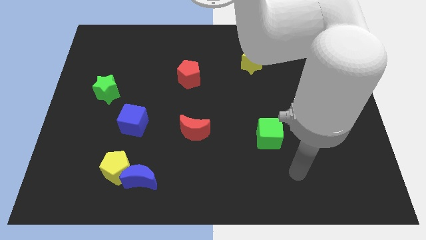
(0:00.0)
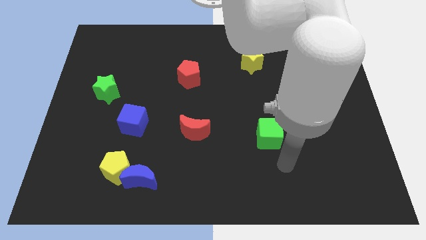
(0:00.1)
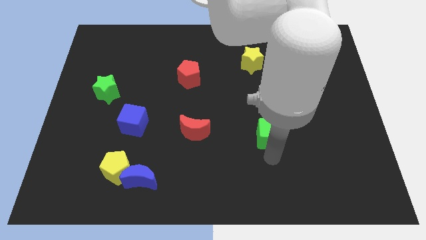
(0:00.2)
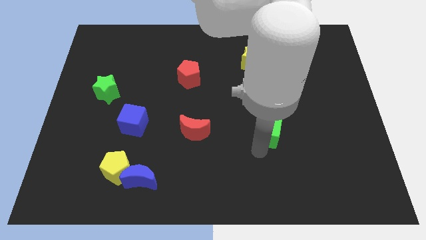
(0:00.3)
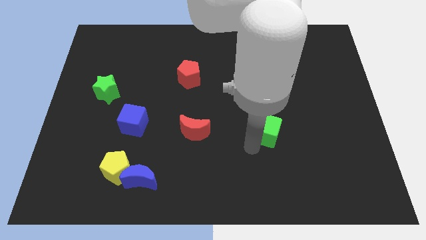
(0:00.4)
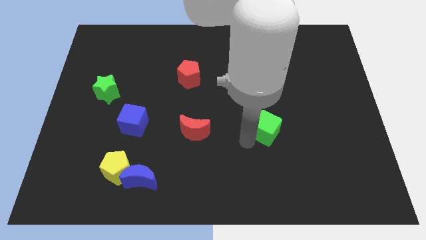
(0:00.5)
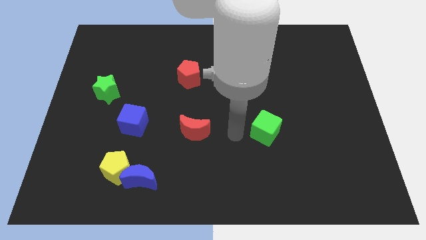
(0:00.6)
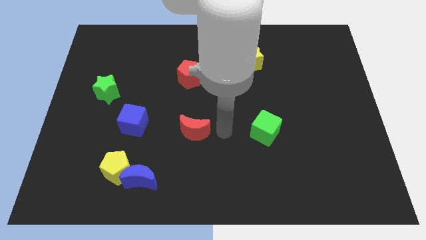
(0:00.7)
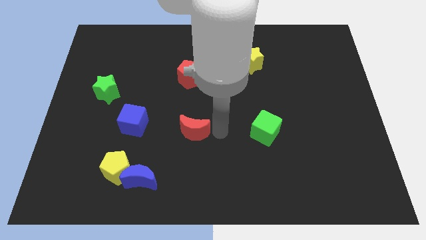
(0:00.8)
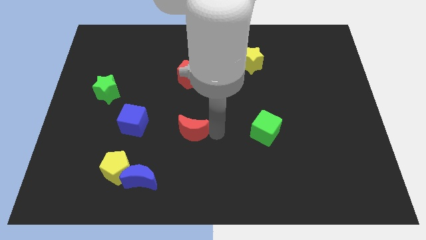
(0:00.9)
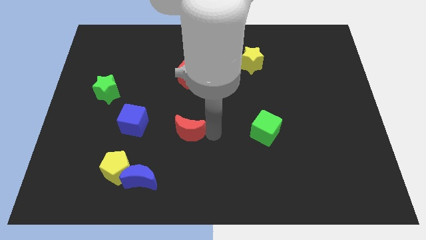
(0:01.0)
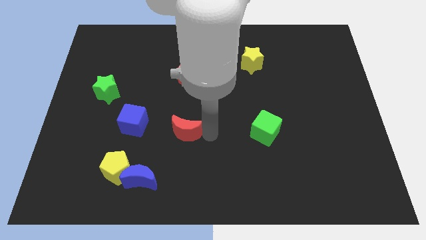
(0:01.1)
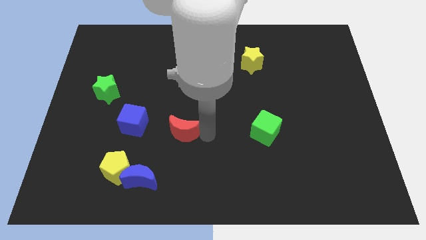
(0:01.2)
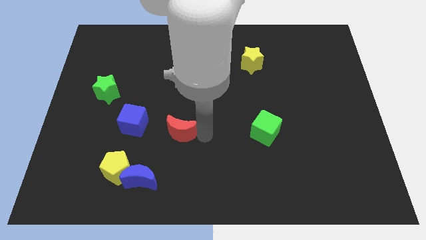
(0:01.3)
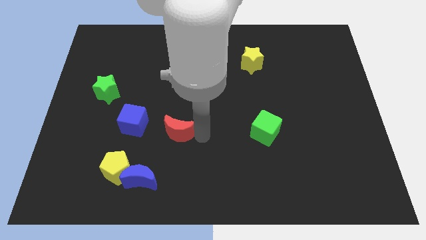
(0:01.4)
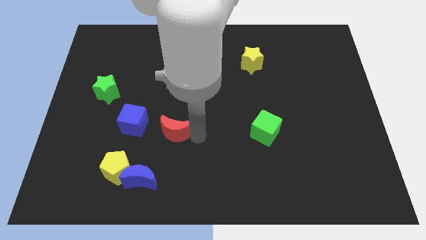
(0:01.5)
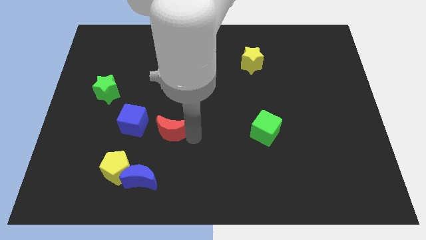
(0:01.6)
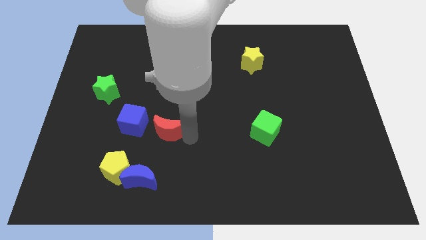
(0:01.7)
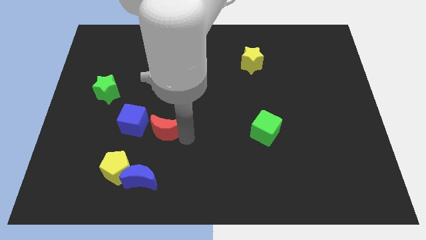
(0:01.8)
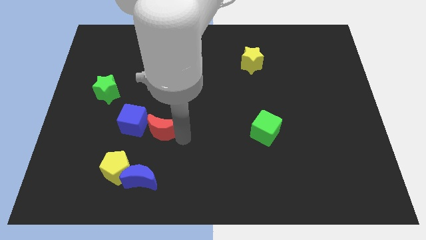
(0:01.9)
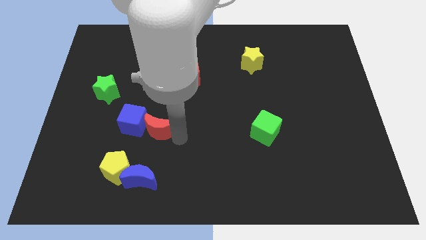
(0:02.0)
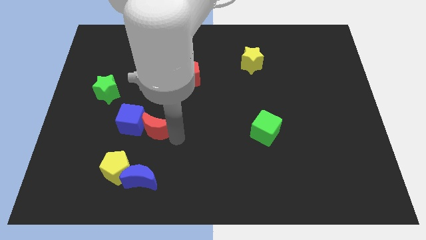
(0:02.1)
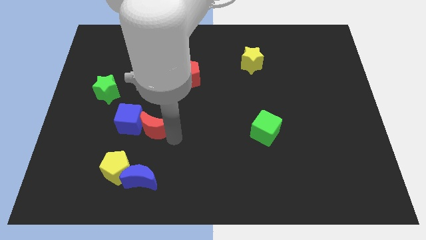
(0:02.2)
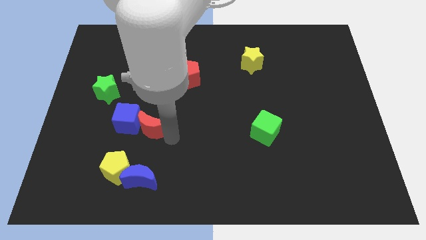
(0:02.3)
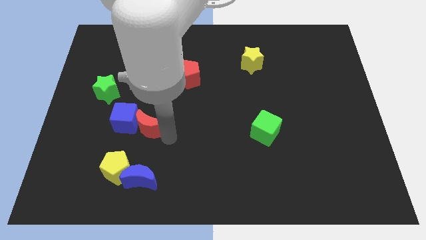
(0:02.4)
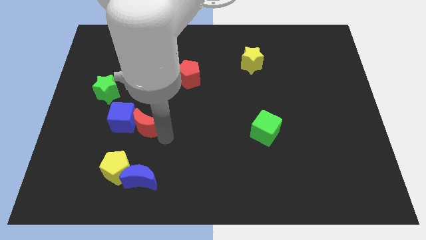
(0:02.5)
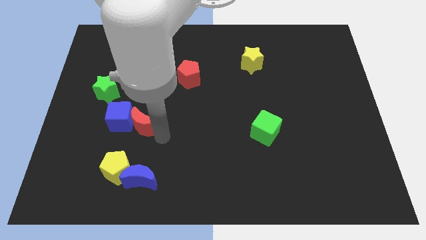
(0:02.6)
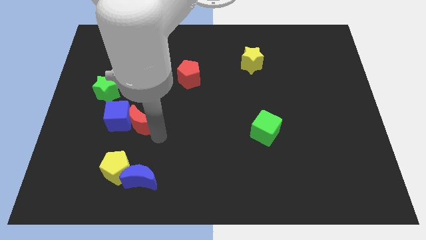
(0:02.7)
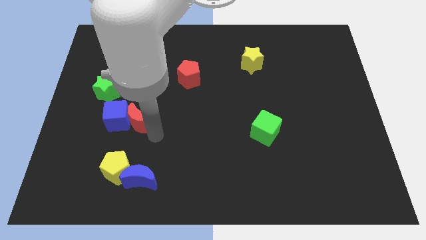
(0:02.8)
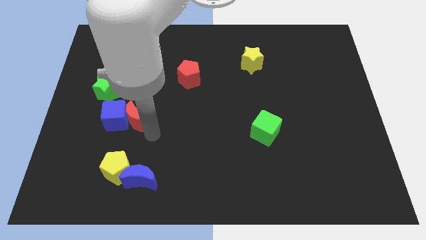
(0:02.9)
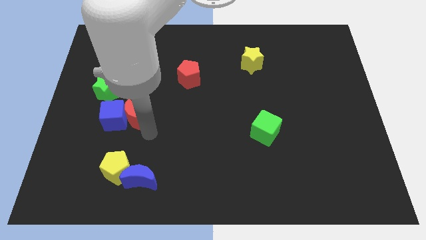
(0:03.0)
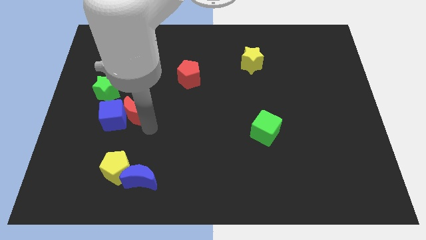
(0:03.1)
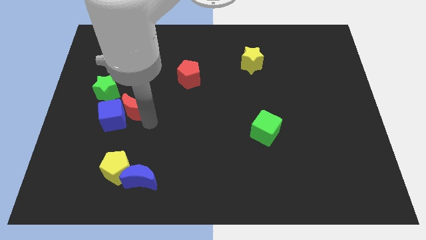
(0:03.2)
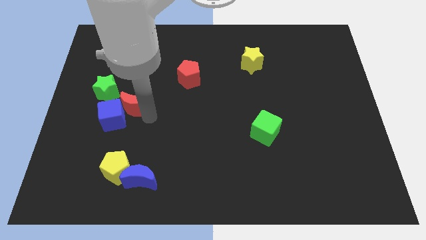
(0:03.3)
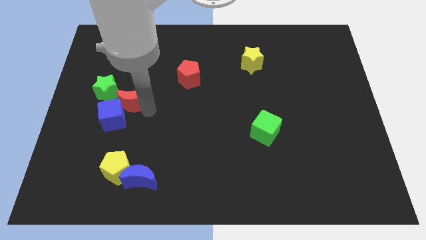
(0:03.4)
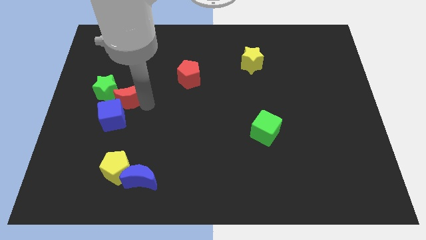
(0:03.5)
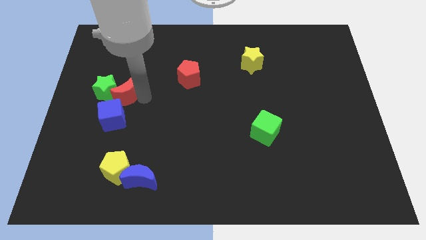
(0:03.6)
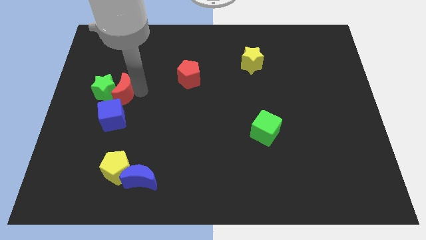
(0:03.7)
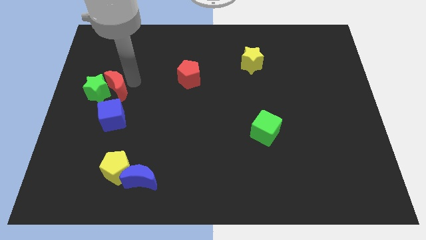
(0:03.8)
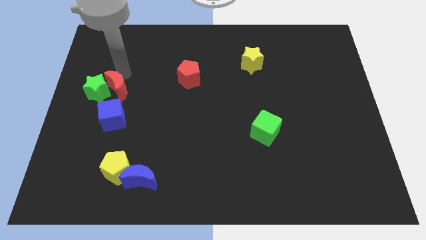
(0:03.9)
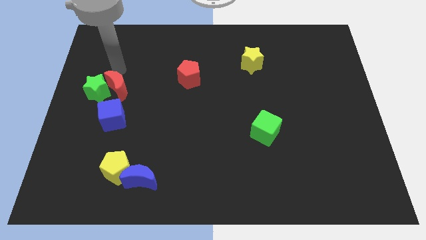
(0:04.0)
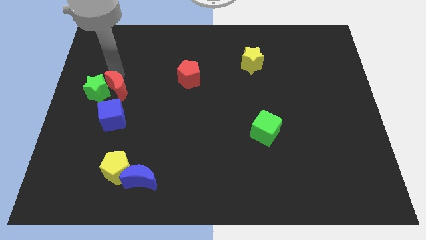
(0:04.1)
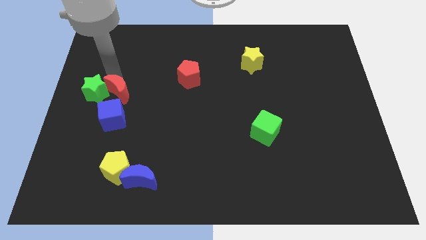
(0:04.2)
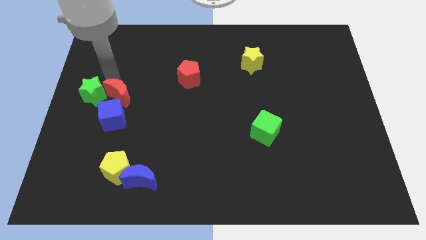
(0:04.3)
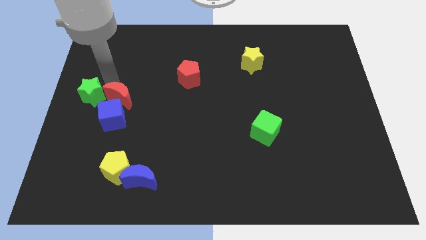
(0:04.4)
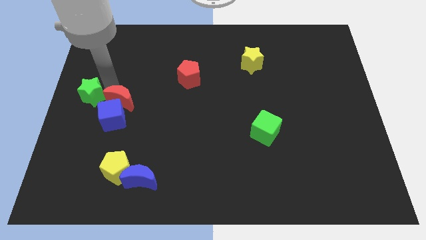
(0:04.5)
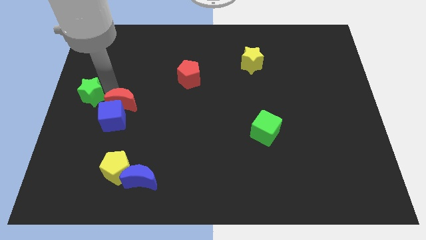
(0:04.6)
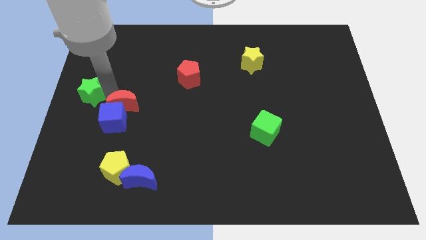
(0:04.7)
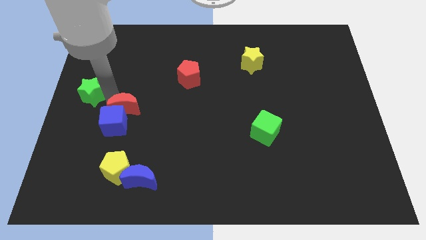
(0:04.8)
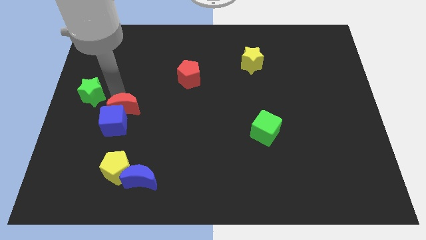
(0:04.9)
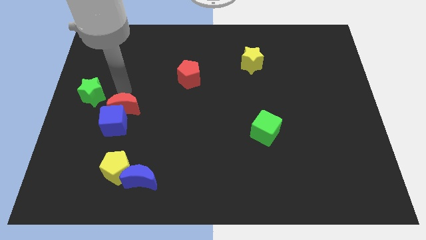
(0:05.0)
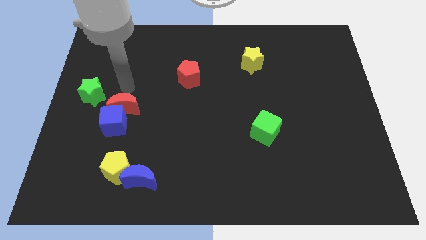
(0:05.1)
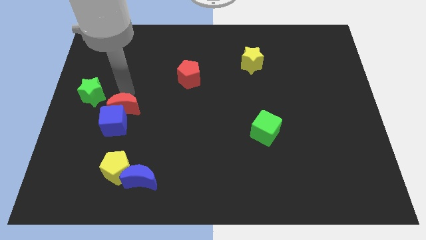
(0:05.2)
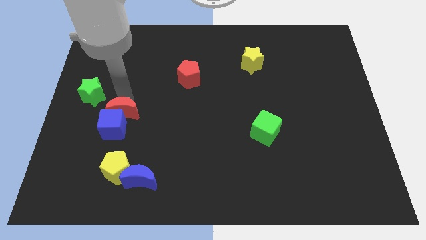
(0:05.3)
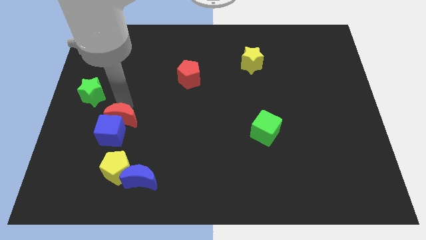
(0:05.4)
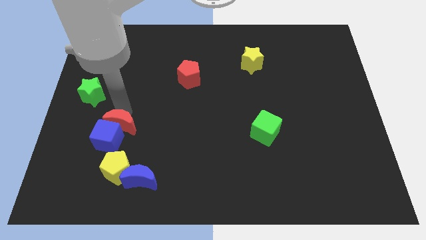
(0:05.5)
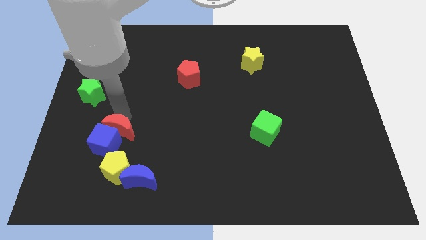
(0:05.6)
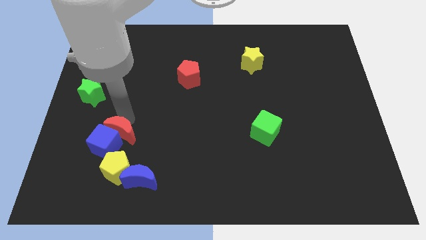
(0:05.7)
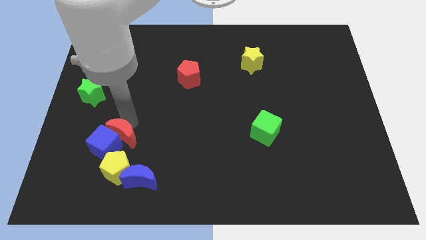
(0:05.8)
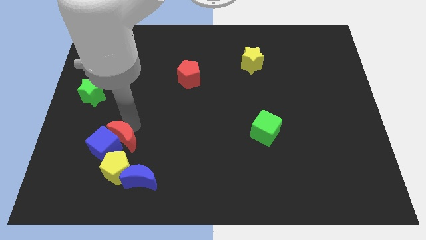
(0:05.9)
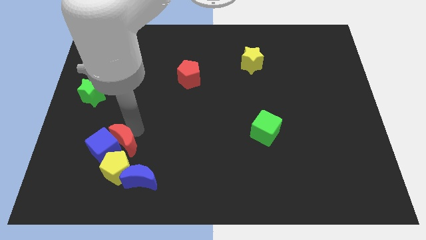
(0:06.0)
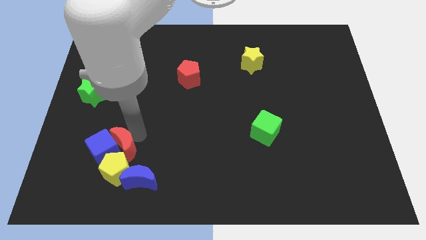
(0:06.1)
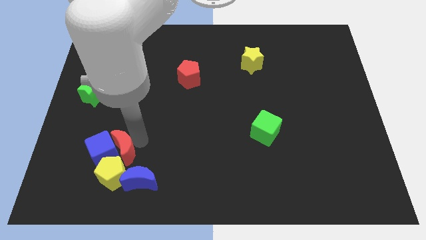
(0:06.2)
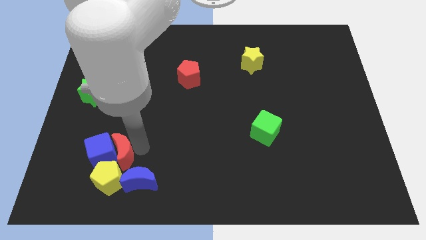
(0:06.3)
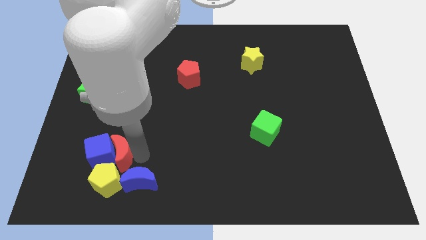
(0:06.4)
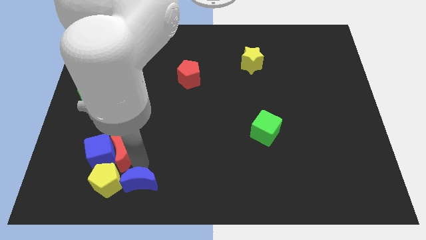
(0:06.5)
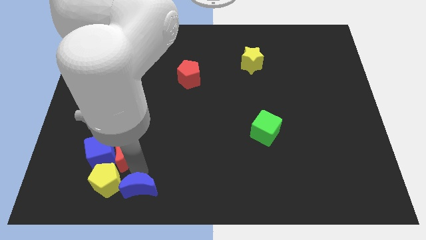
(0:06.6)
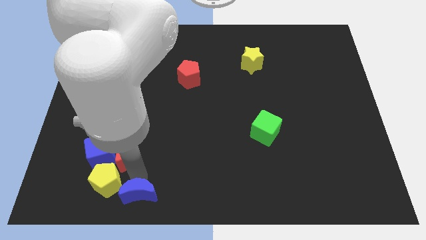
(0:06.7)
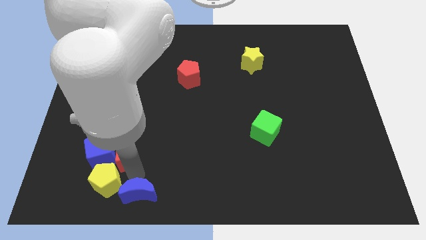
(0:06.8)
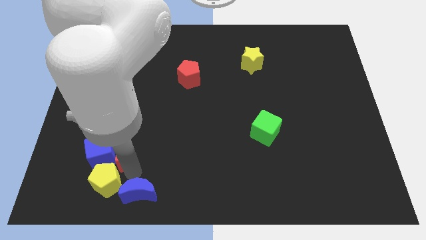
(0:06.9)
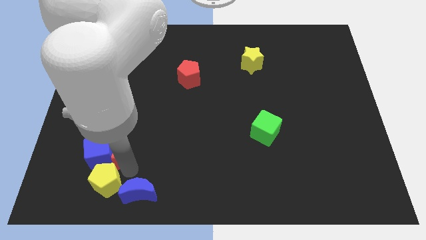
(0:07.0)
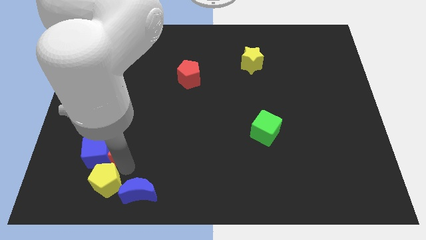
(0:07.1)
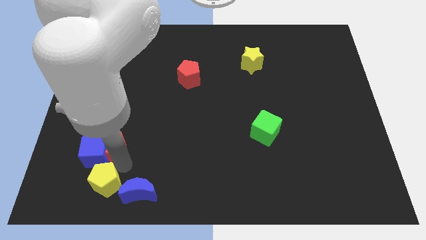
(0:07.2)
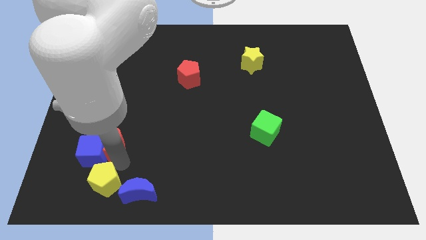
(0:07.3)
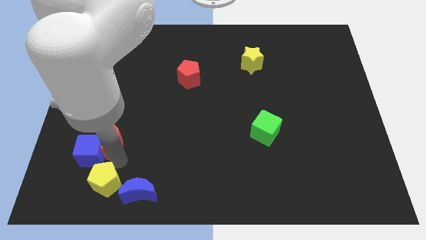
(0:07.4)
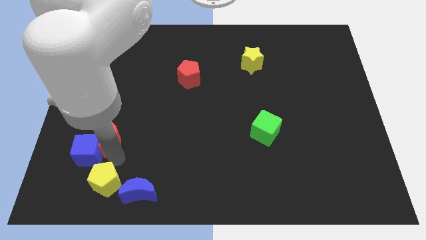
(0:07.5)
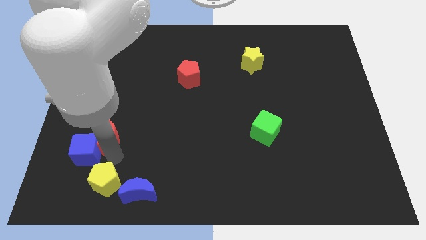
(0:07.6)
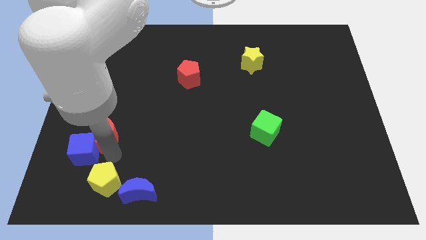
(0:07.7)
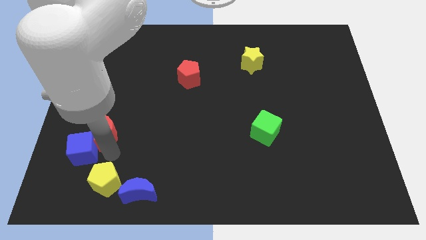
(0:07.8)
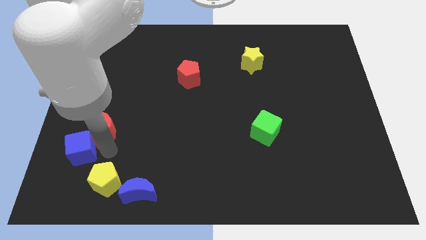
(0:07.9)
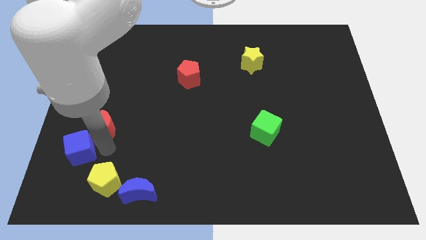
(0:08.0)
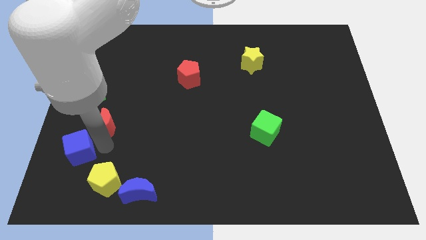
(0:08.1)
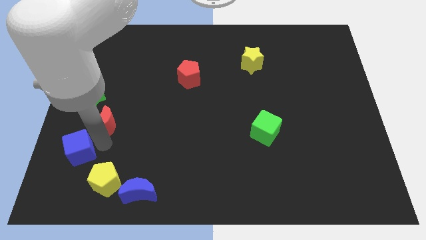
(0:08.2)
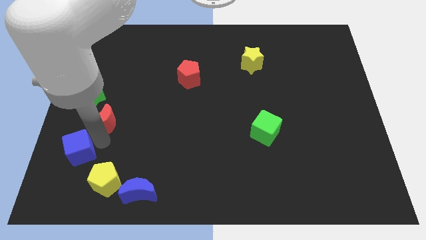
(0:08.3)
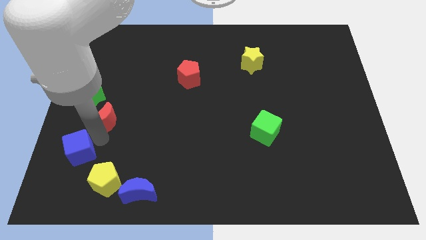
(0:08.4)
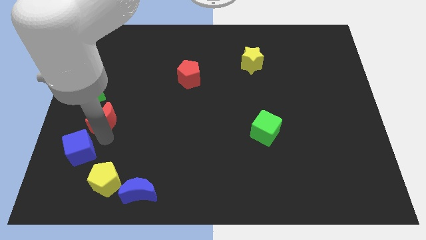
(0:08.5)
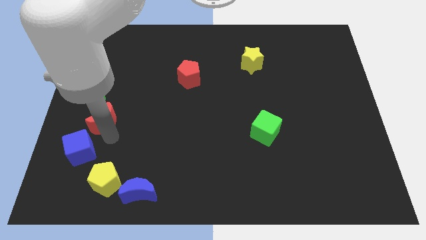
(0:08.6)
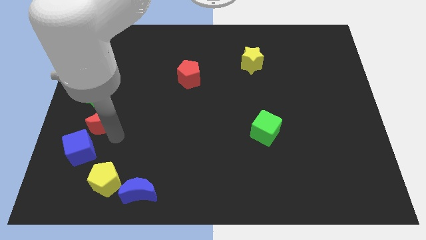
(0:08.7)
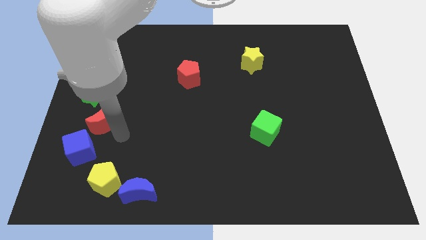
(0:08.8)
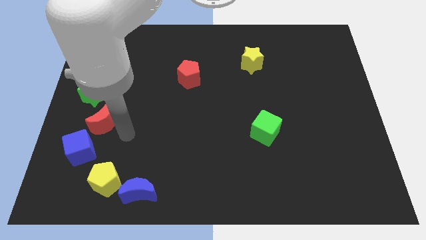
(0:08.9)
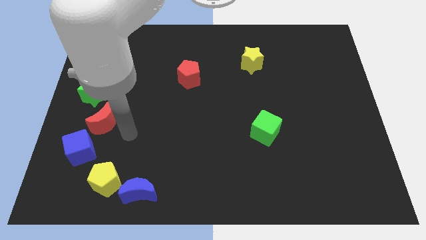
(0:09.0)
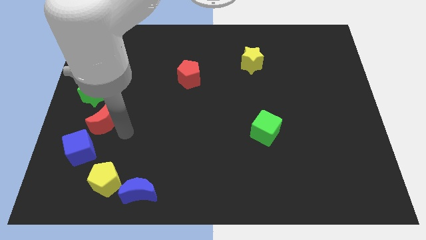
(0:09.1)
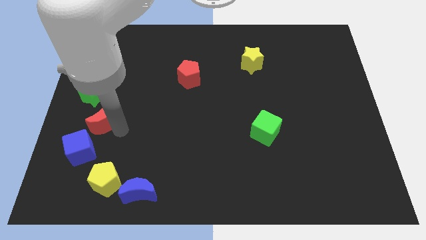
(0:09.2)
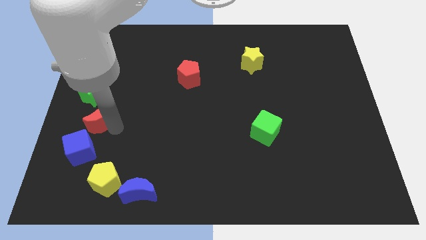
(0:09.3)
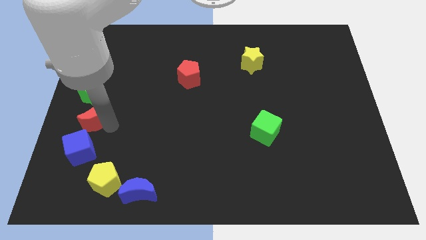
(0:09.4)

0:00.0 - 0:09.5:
put the red moon to the left side of the board
